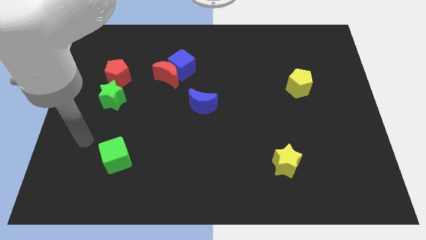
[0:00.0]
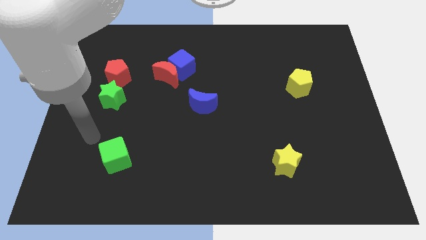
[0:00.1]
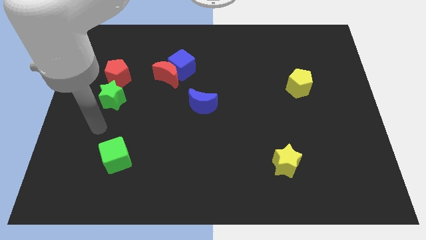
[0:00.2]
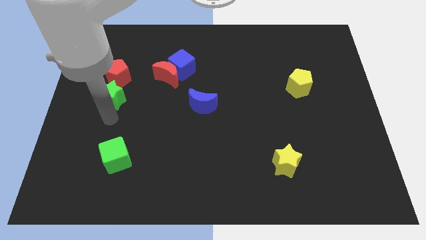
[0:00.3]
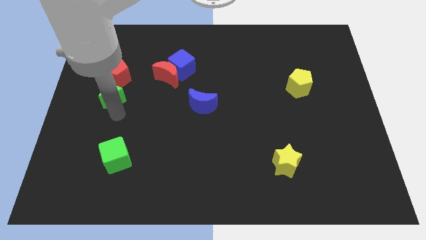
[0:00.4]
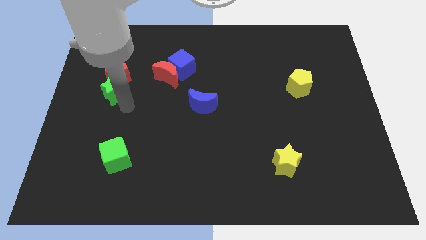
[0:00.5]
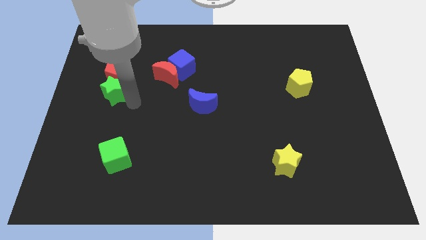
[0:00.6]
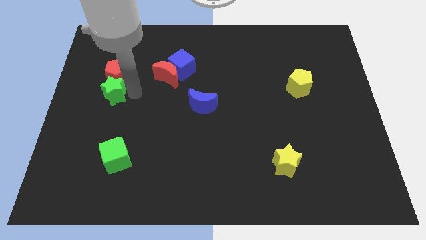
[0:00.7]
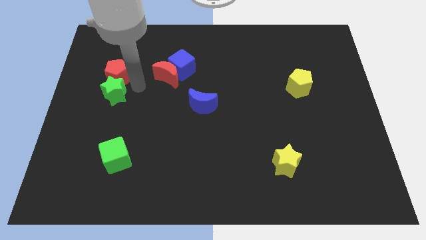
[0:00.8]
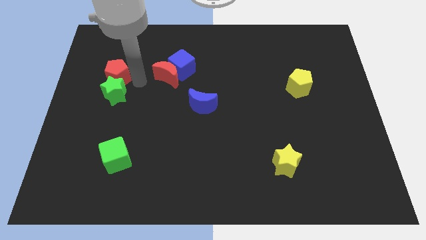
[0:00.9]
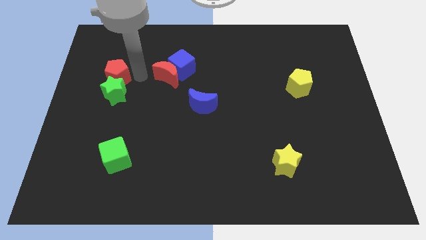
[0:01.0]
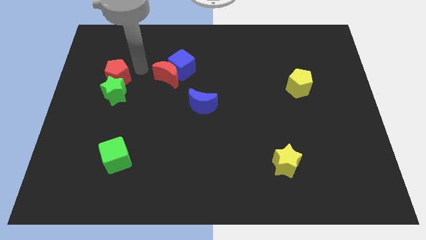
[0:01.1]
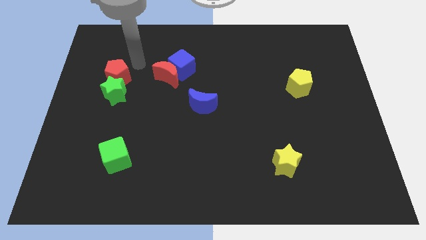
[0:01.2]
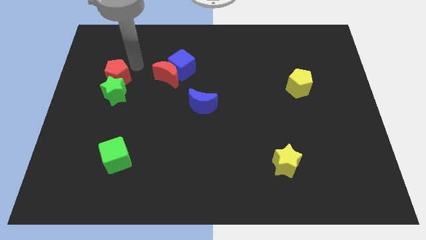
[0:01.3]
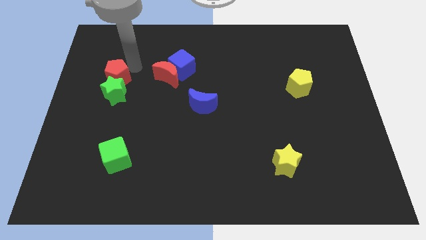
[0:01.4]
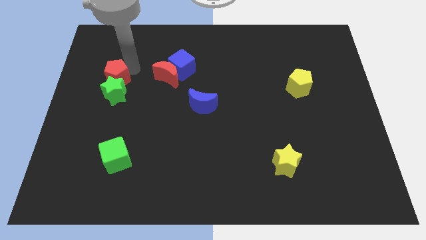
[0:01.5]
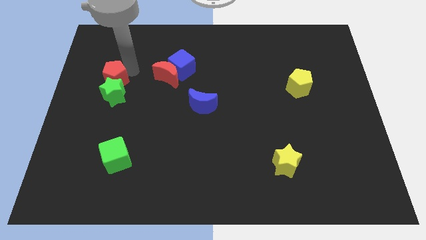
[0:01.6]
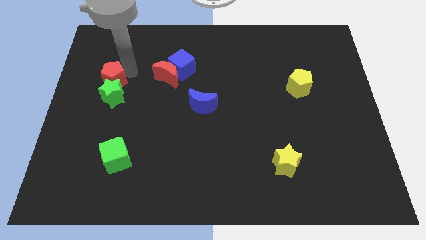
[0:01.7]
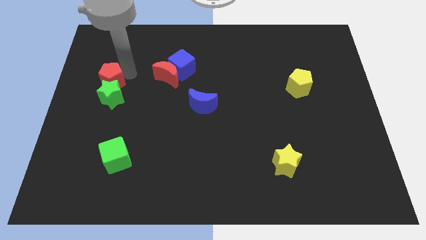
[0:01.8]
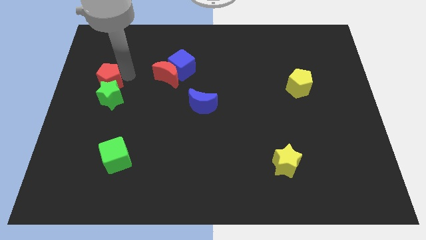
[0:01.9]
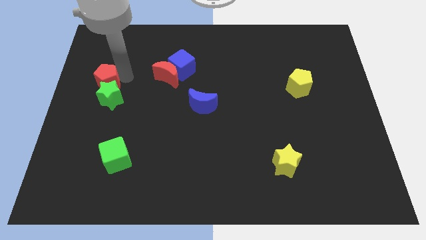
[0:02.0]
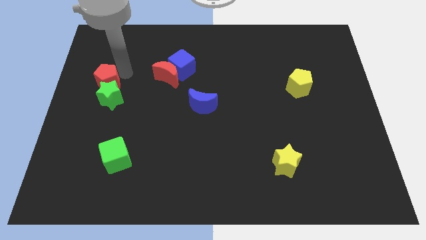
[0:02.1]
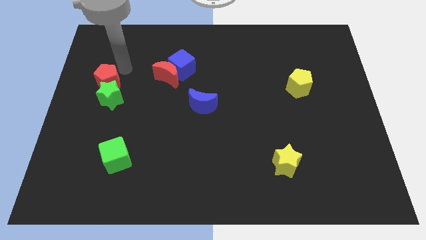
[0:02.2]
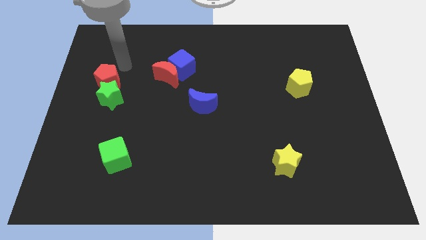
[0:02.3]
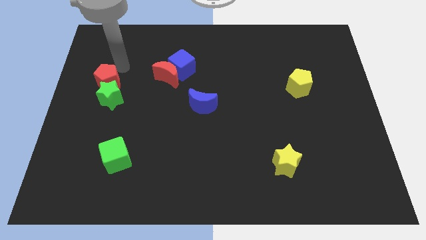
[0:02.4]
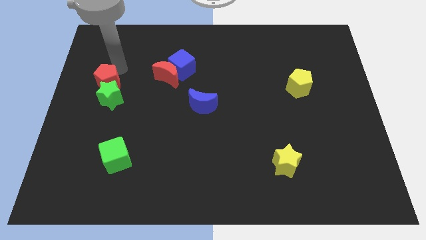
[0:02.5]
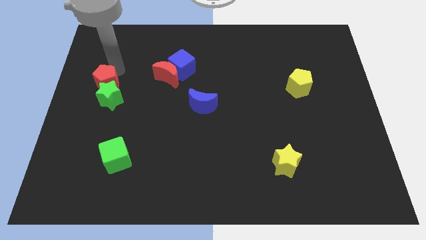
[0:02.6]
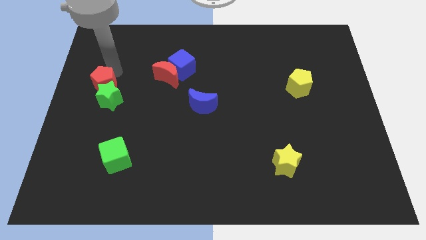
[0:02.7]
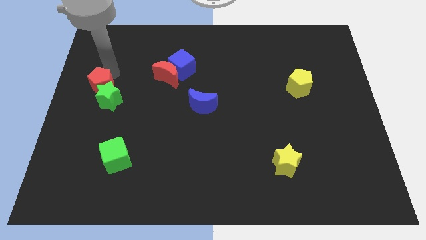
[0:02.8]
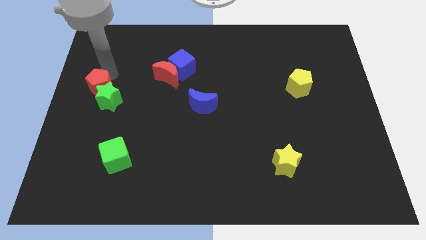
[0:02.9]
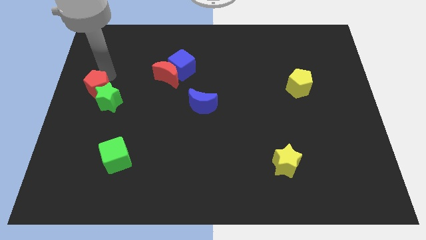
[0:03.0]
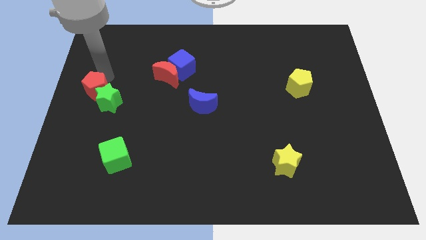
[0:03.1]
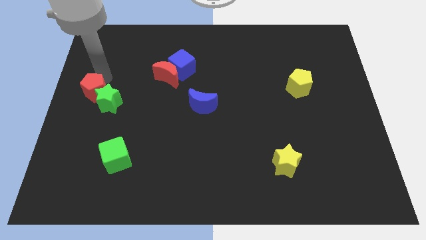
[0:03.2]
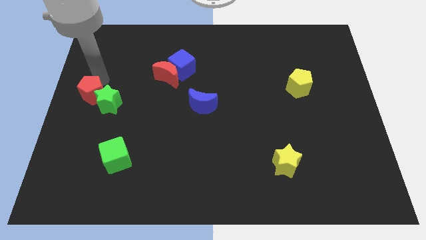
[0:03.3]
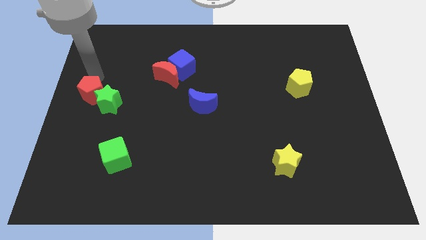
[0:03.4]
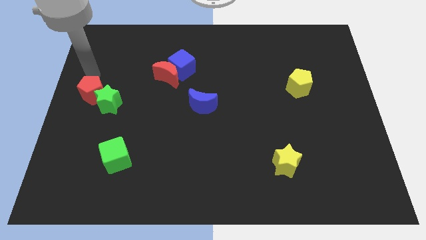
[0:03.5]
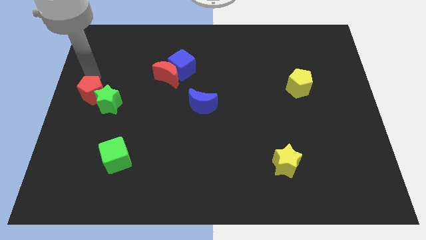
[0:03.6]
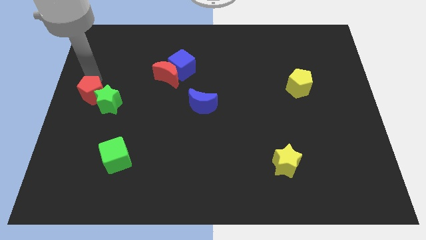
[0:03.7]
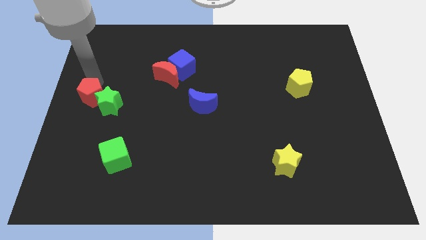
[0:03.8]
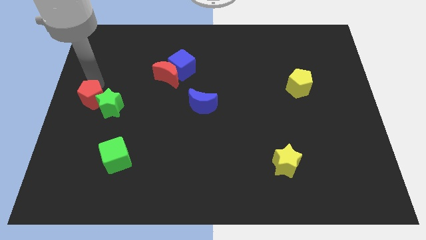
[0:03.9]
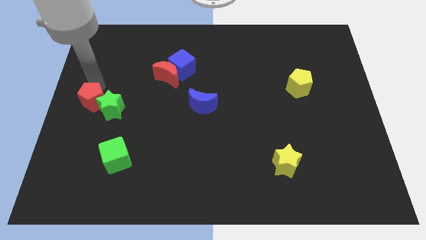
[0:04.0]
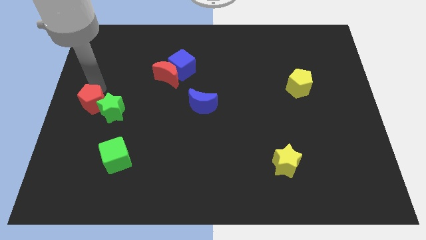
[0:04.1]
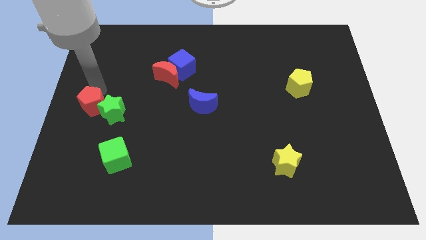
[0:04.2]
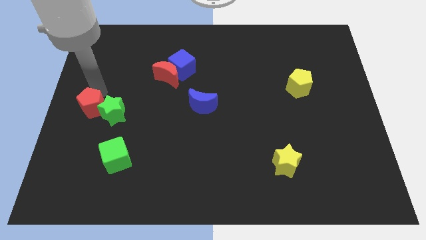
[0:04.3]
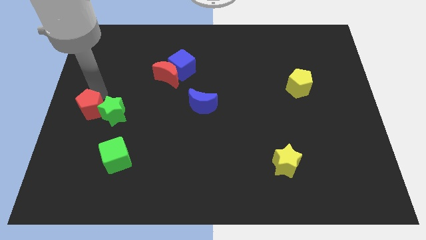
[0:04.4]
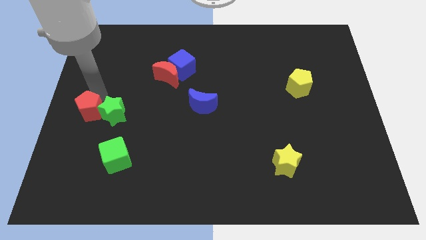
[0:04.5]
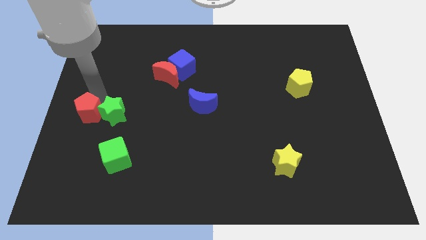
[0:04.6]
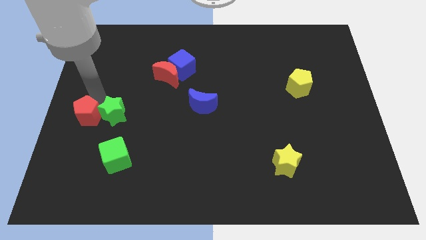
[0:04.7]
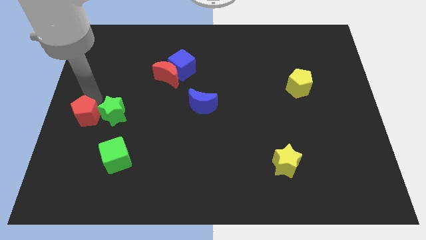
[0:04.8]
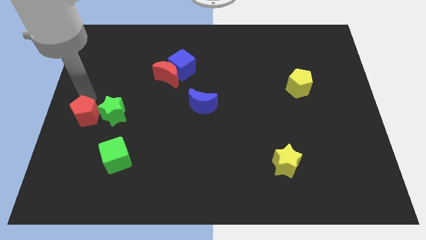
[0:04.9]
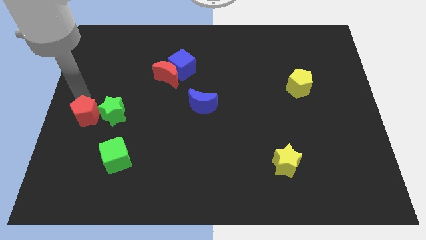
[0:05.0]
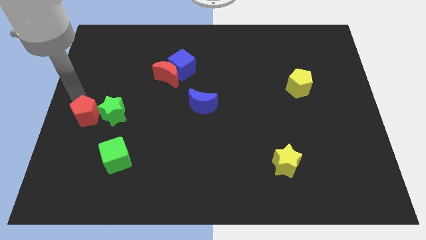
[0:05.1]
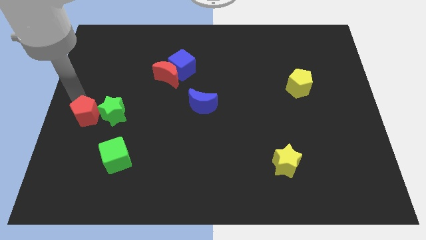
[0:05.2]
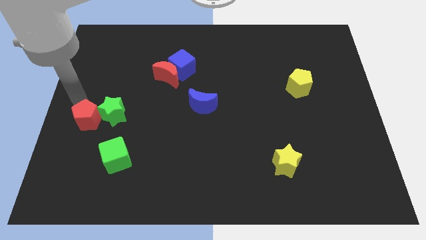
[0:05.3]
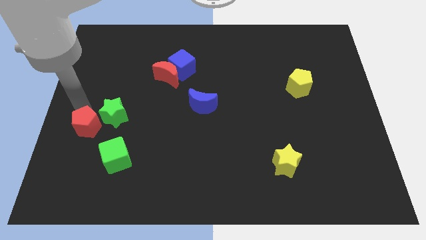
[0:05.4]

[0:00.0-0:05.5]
slide the red pentagon to the top left of the green cube

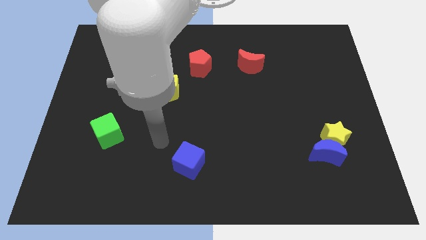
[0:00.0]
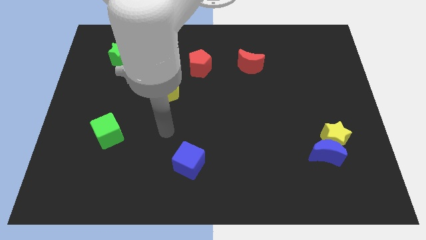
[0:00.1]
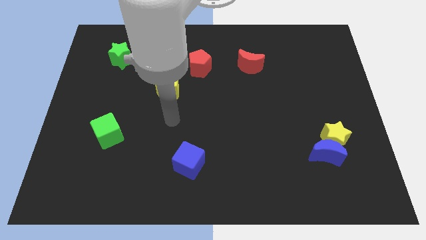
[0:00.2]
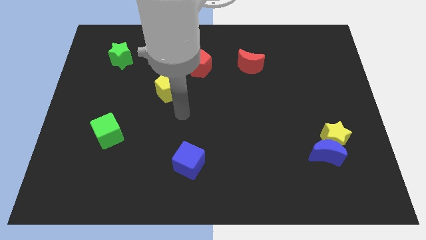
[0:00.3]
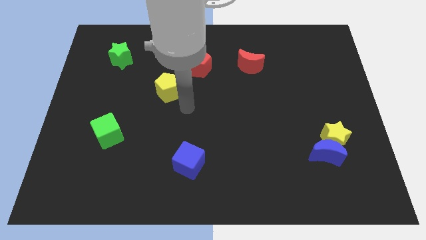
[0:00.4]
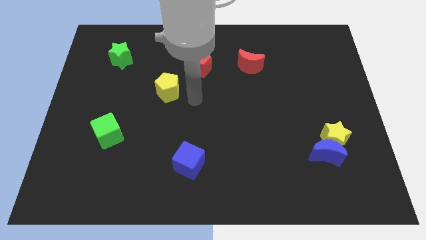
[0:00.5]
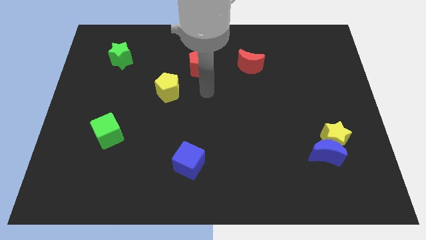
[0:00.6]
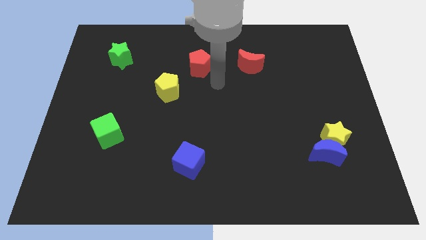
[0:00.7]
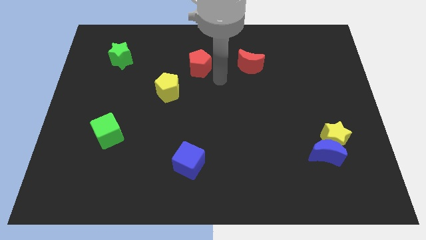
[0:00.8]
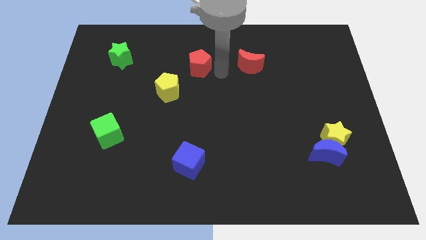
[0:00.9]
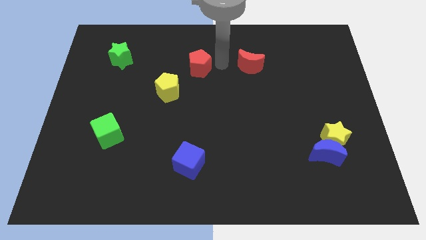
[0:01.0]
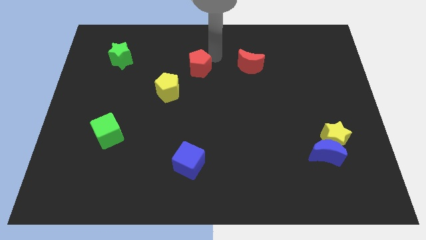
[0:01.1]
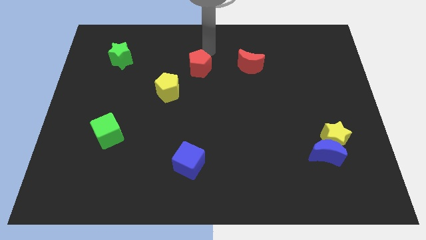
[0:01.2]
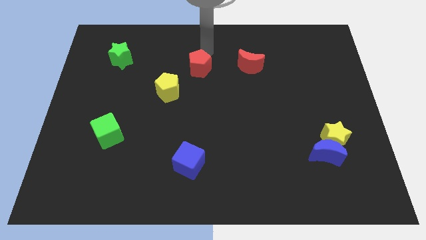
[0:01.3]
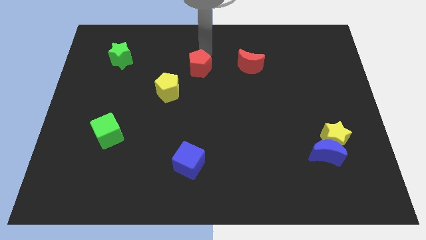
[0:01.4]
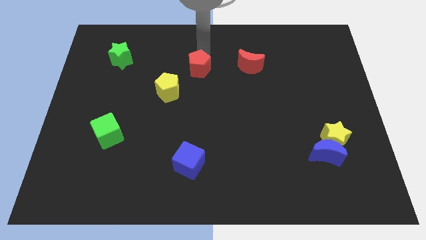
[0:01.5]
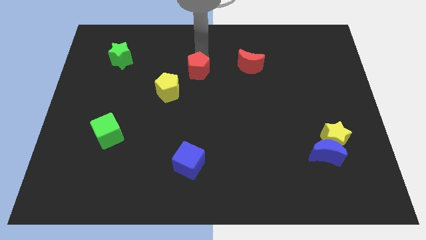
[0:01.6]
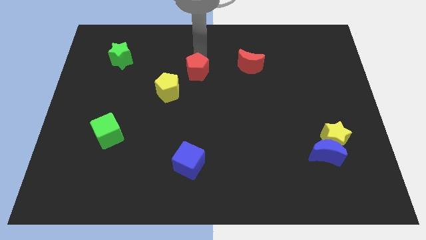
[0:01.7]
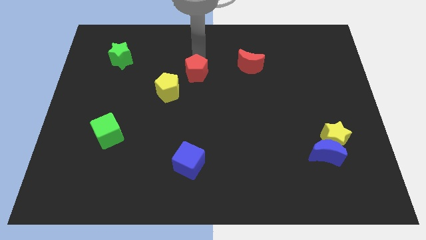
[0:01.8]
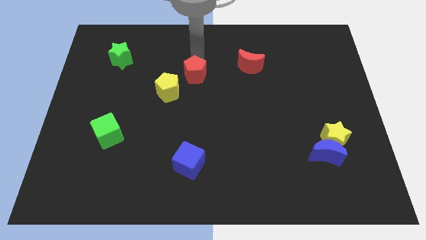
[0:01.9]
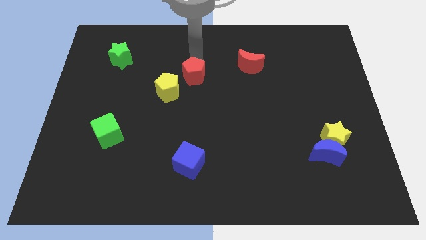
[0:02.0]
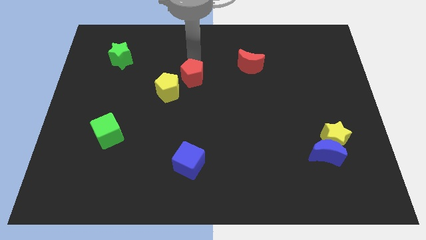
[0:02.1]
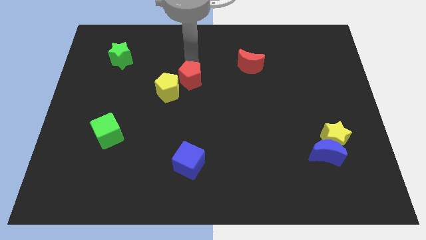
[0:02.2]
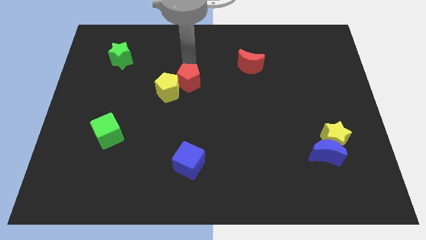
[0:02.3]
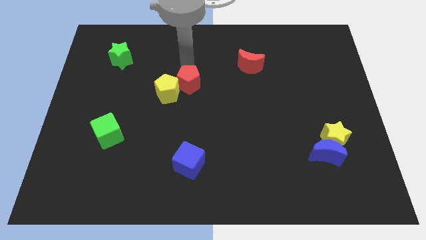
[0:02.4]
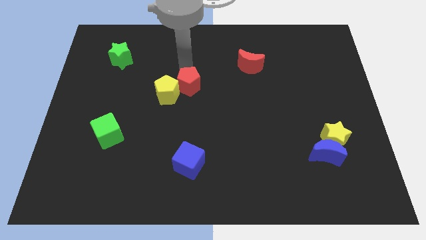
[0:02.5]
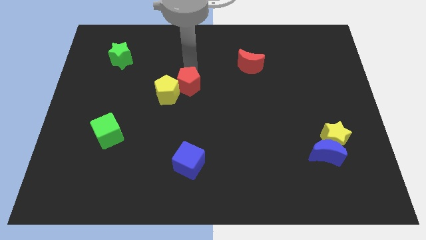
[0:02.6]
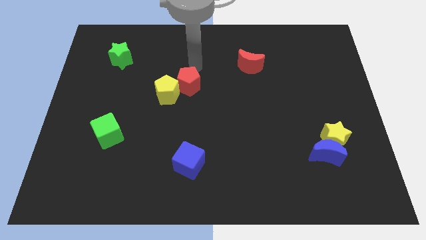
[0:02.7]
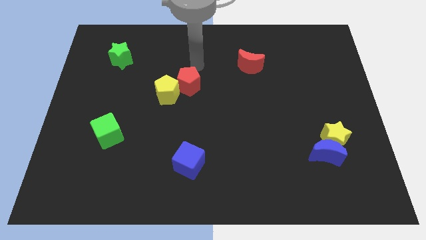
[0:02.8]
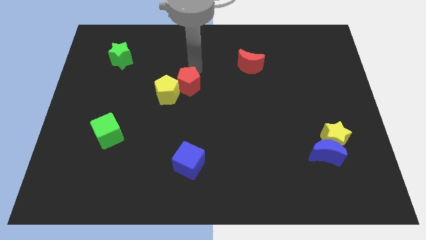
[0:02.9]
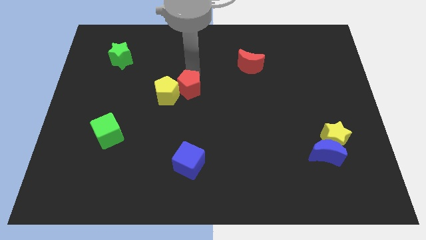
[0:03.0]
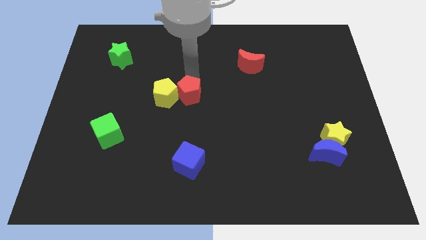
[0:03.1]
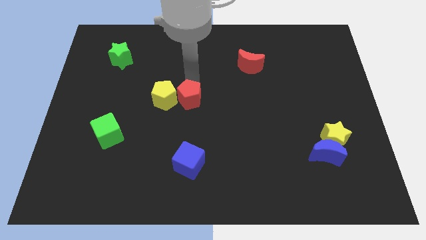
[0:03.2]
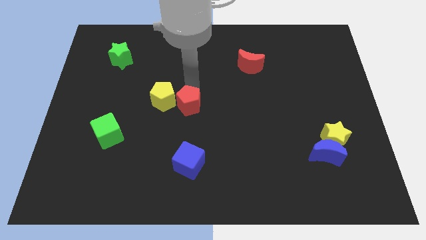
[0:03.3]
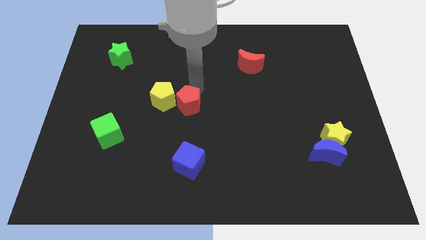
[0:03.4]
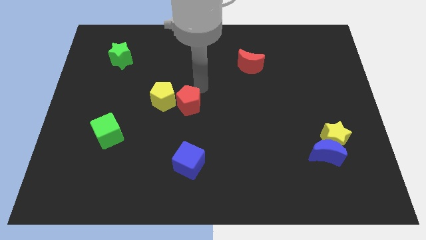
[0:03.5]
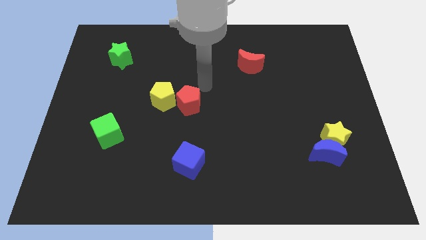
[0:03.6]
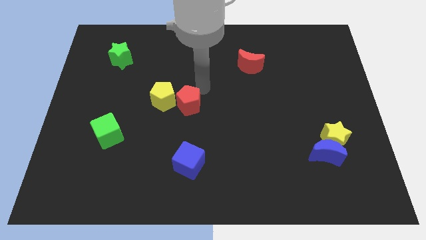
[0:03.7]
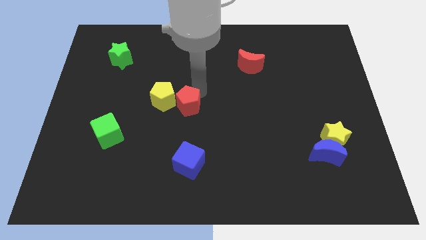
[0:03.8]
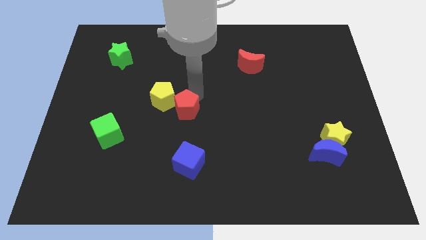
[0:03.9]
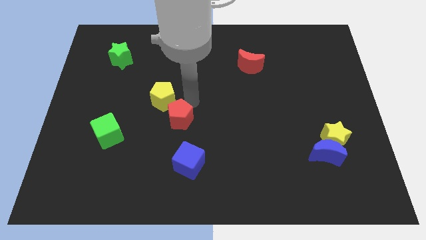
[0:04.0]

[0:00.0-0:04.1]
move the red pentagon to the bottom of the yellow pentagon
